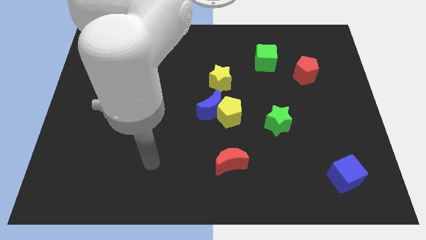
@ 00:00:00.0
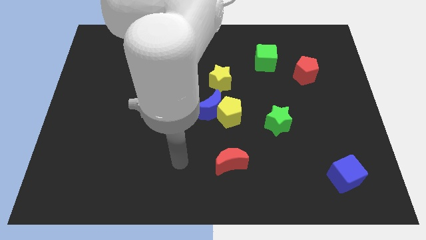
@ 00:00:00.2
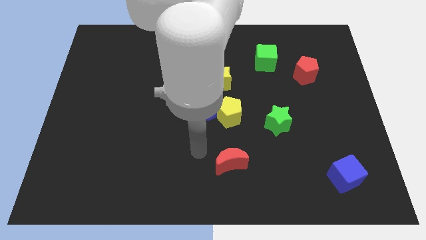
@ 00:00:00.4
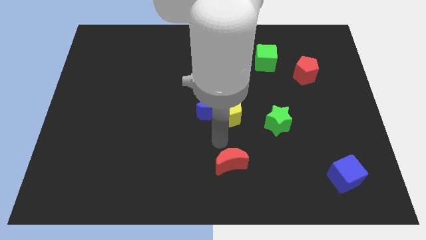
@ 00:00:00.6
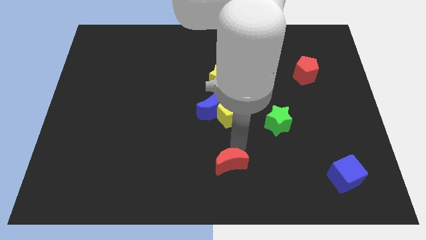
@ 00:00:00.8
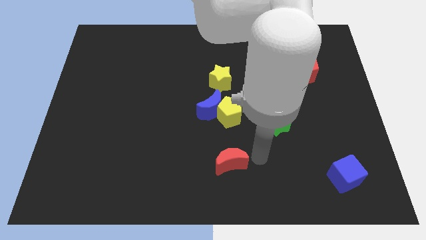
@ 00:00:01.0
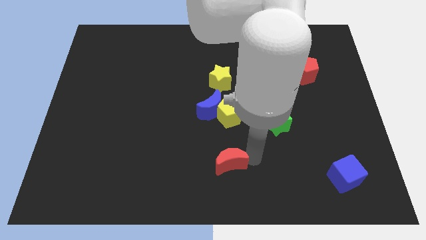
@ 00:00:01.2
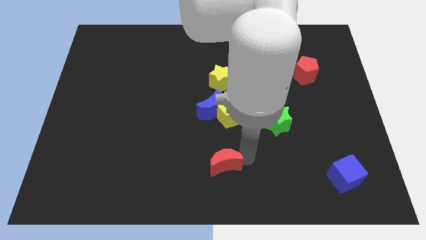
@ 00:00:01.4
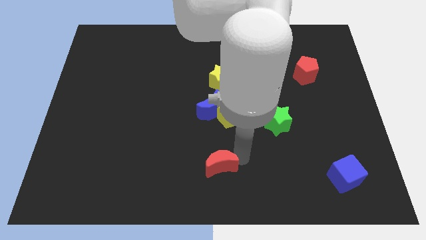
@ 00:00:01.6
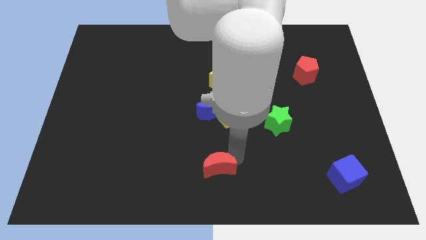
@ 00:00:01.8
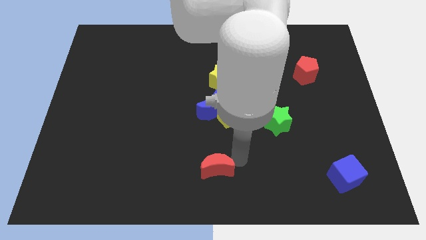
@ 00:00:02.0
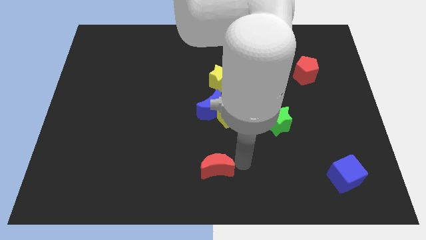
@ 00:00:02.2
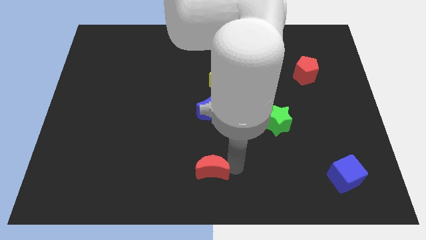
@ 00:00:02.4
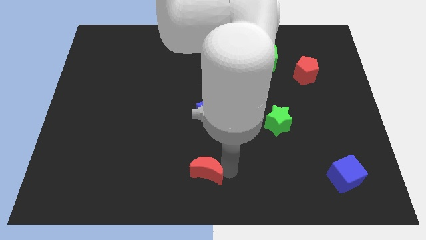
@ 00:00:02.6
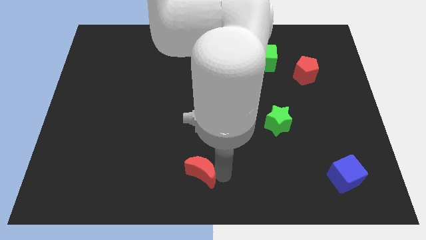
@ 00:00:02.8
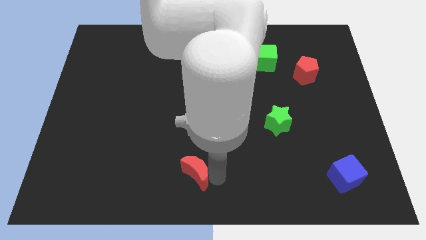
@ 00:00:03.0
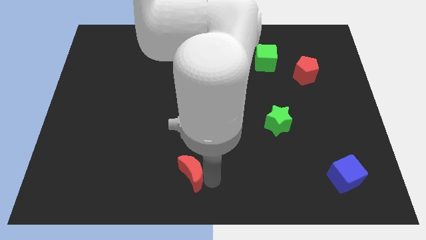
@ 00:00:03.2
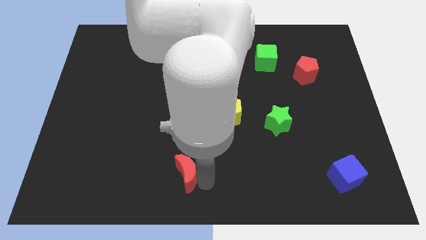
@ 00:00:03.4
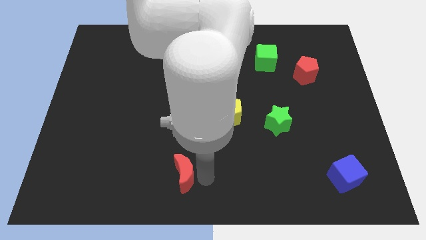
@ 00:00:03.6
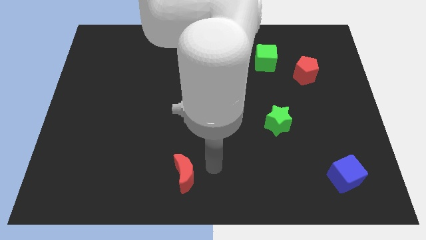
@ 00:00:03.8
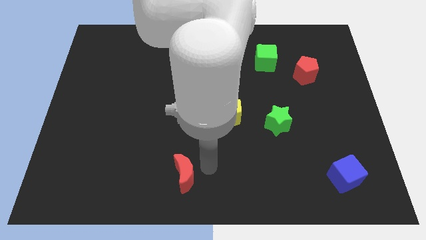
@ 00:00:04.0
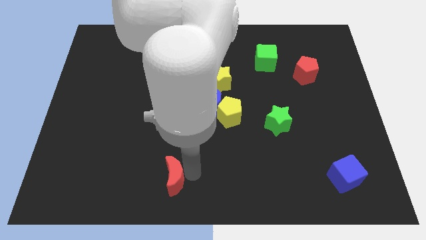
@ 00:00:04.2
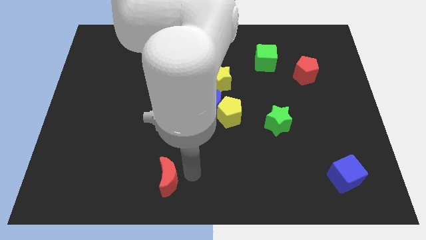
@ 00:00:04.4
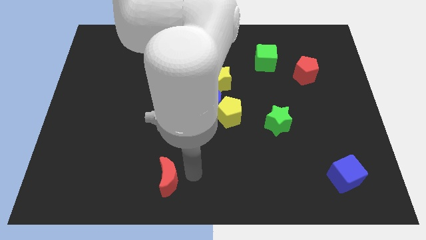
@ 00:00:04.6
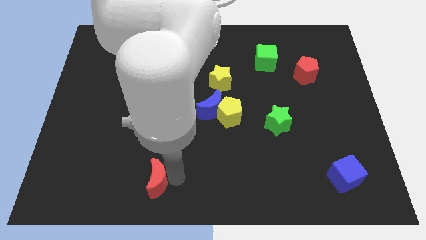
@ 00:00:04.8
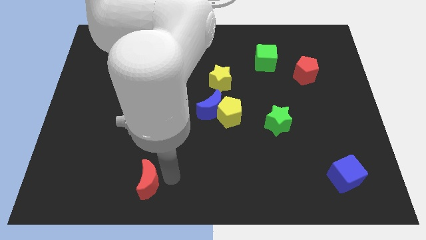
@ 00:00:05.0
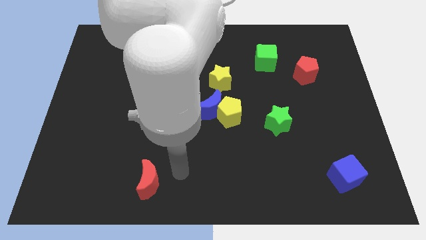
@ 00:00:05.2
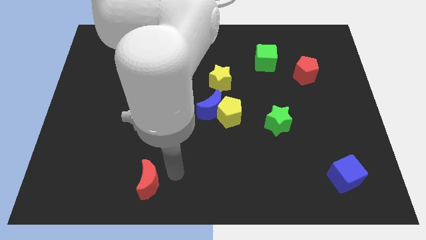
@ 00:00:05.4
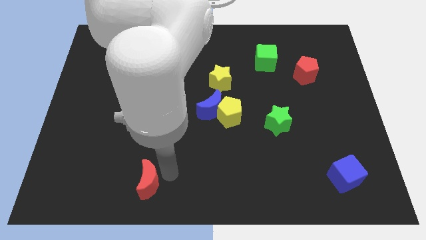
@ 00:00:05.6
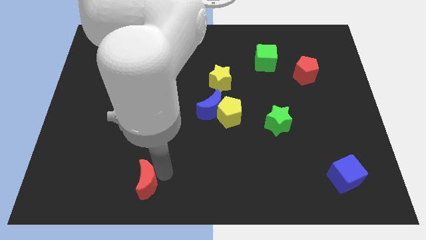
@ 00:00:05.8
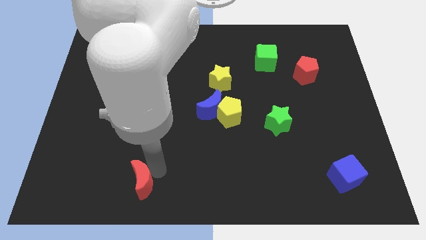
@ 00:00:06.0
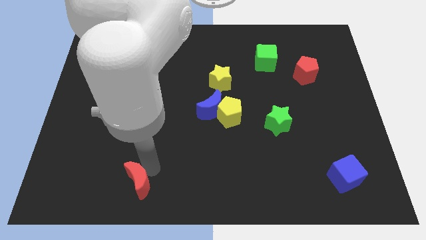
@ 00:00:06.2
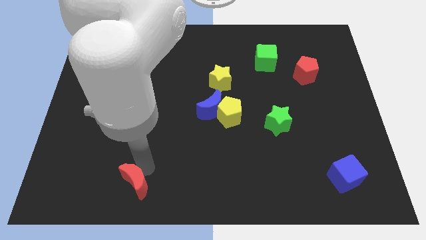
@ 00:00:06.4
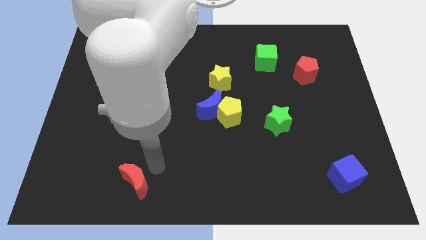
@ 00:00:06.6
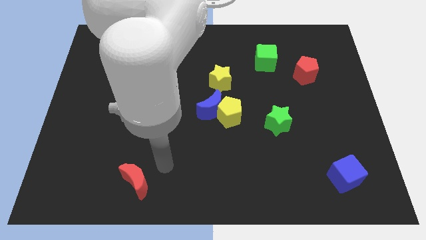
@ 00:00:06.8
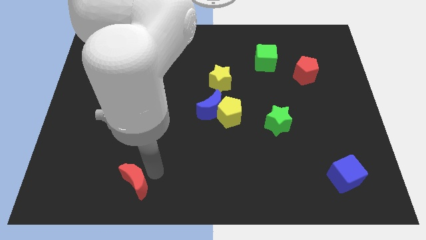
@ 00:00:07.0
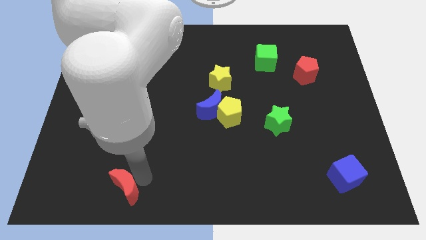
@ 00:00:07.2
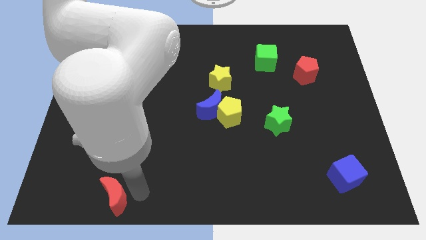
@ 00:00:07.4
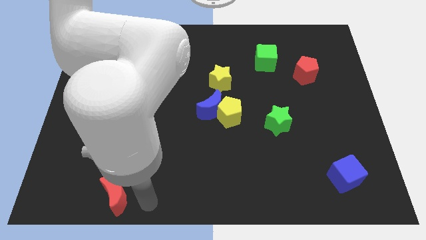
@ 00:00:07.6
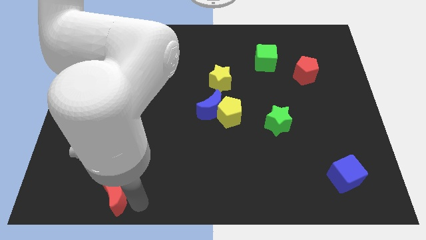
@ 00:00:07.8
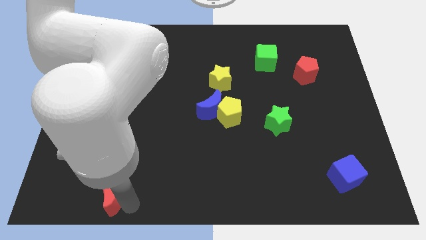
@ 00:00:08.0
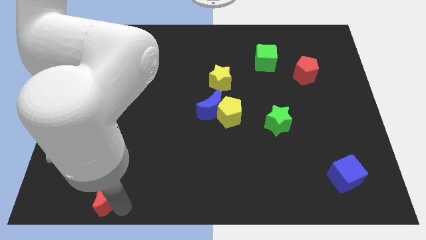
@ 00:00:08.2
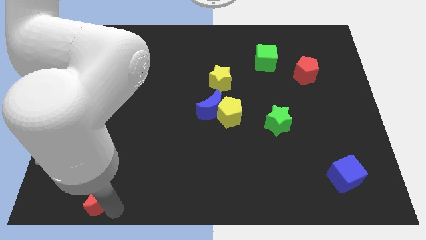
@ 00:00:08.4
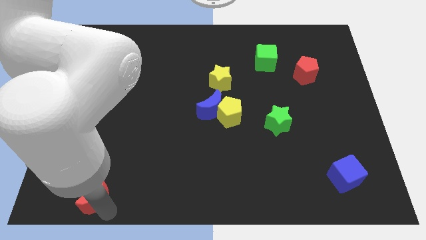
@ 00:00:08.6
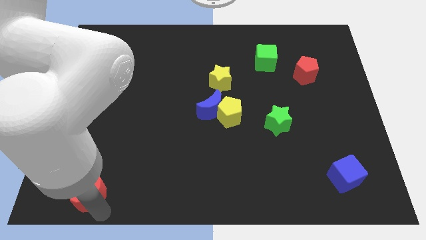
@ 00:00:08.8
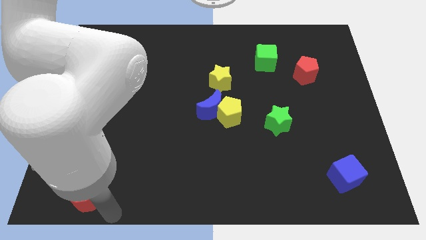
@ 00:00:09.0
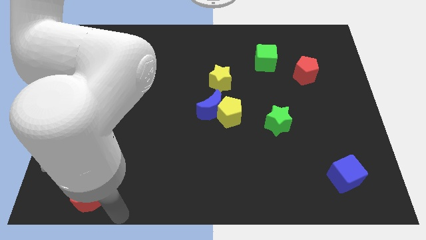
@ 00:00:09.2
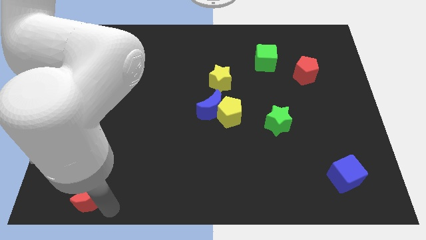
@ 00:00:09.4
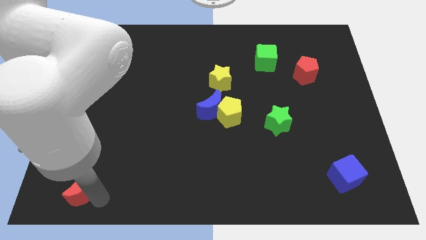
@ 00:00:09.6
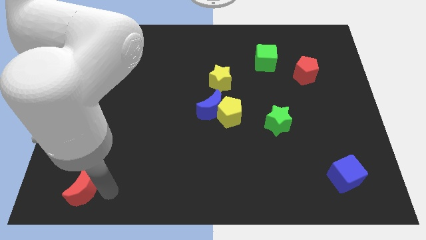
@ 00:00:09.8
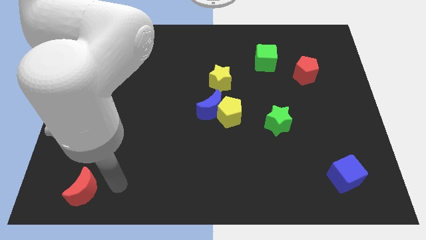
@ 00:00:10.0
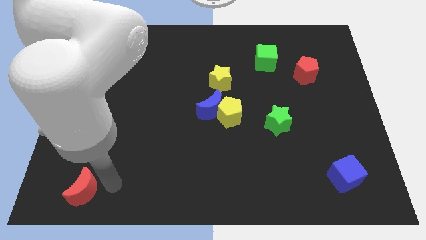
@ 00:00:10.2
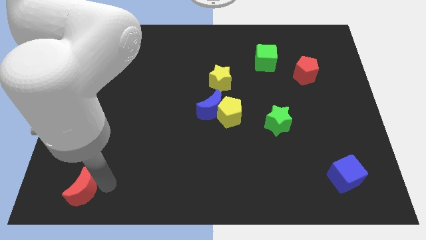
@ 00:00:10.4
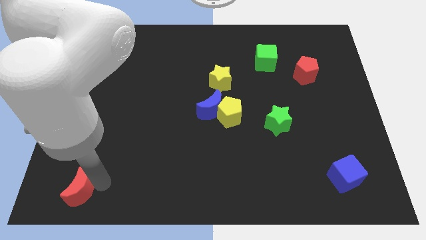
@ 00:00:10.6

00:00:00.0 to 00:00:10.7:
push the red moon to the bottom left corner

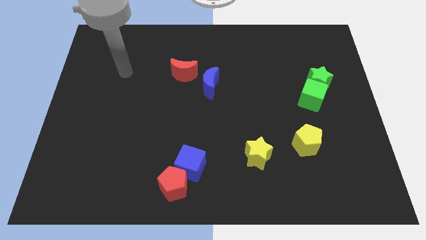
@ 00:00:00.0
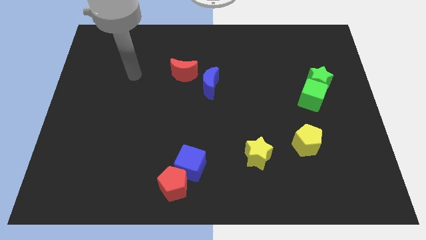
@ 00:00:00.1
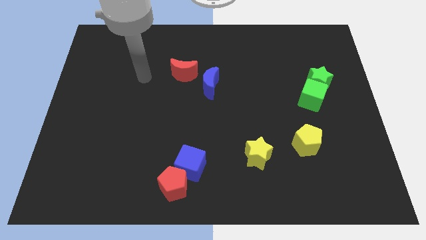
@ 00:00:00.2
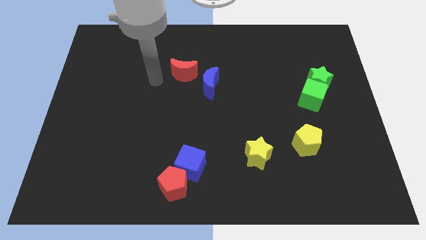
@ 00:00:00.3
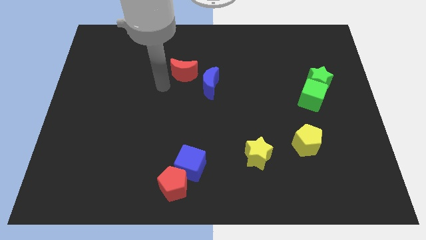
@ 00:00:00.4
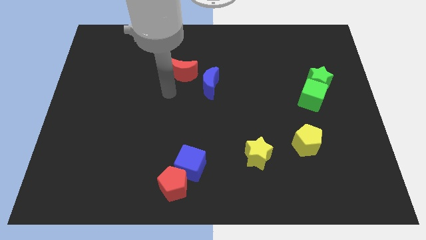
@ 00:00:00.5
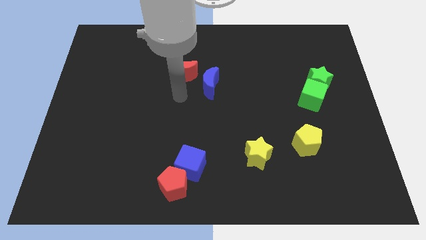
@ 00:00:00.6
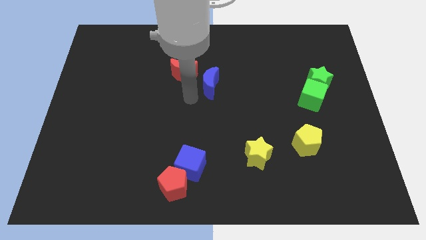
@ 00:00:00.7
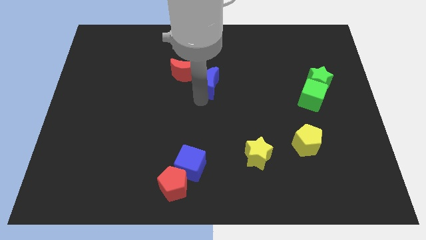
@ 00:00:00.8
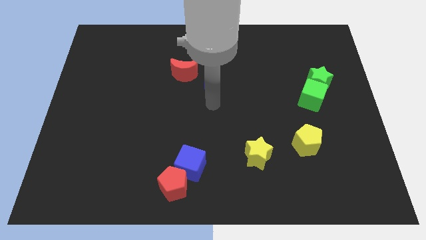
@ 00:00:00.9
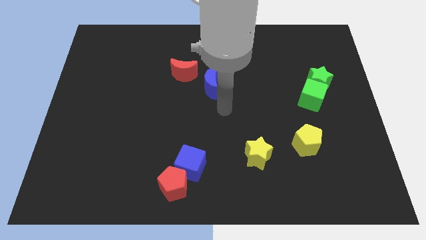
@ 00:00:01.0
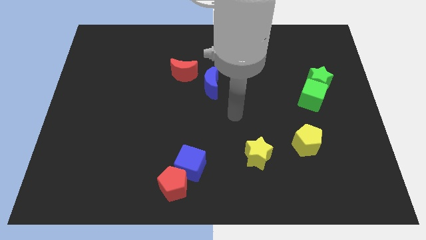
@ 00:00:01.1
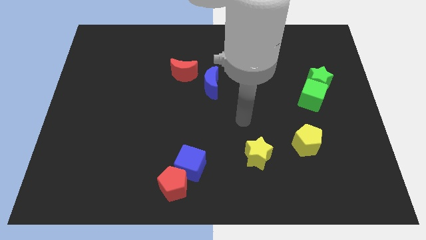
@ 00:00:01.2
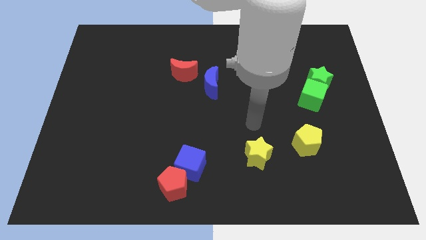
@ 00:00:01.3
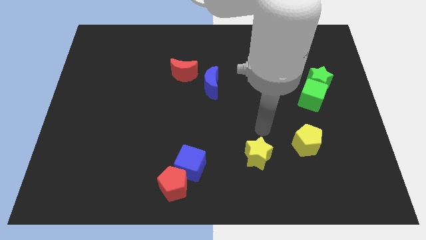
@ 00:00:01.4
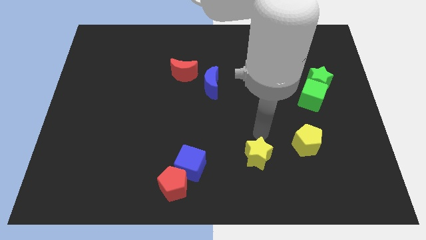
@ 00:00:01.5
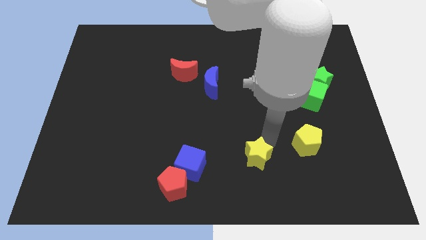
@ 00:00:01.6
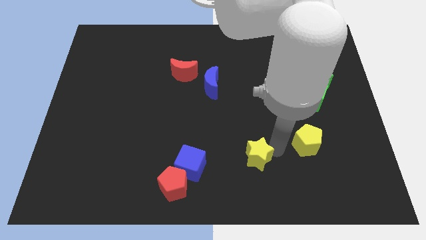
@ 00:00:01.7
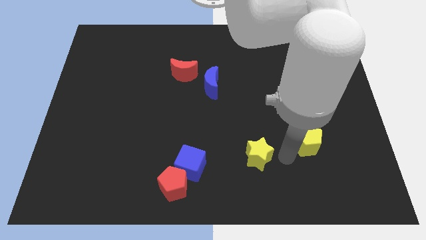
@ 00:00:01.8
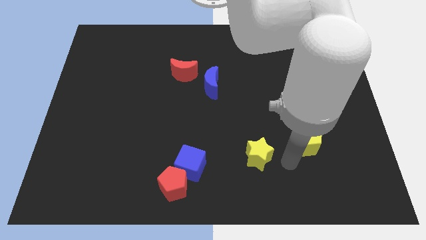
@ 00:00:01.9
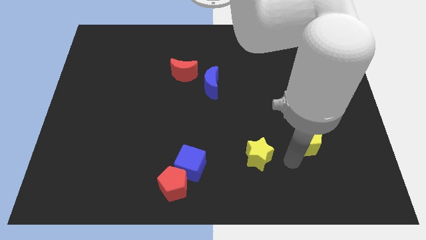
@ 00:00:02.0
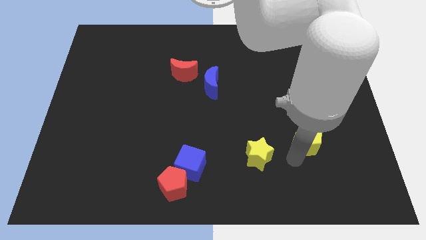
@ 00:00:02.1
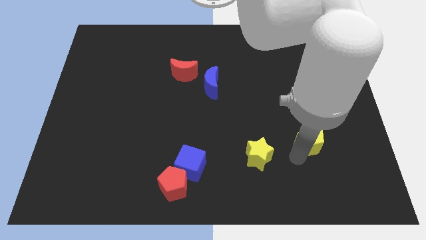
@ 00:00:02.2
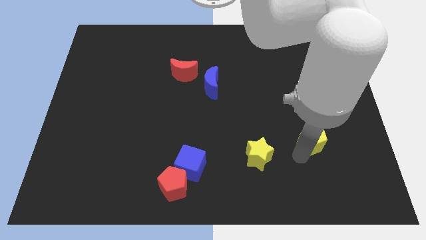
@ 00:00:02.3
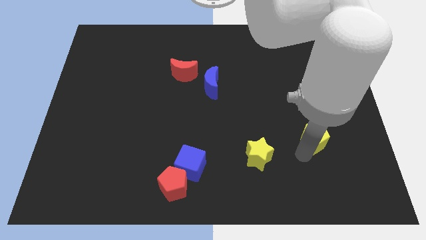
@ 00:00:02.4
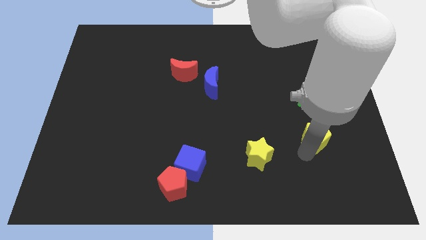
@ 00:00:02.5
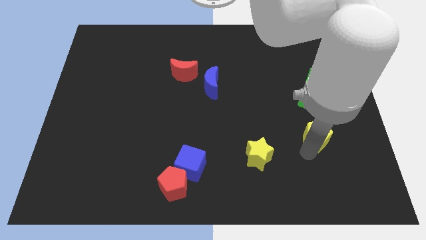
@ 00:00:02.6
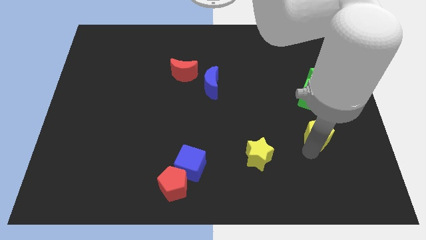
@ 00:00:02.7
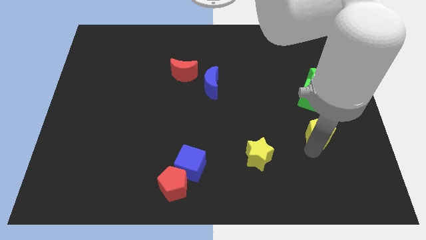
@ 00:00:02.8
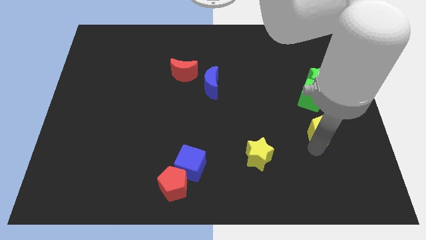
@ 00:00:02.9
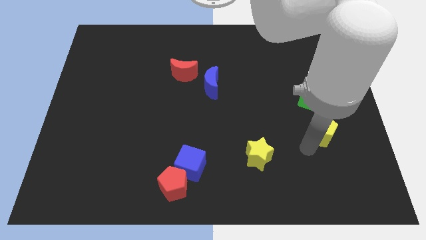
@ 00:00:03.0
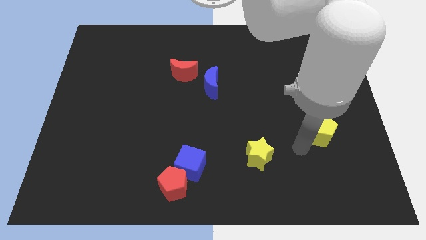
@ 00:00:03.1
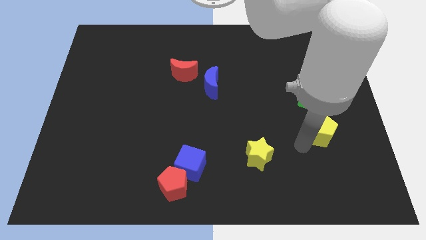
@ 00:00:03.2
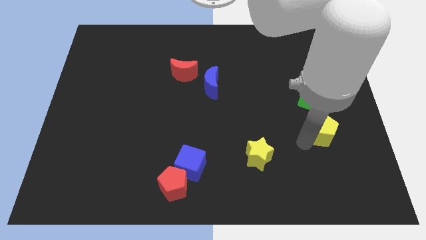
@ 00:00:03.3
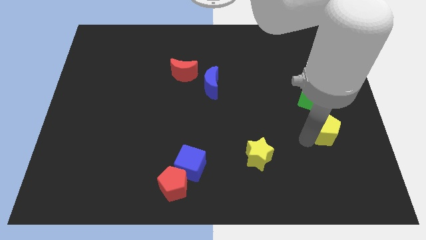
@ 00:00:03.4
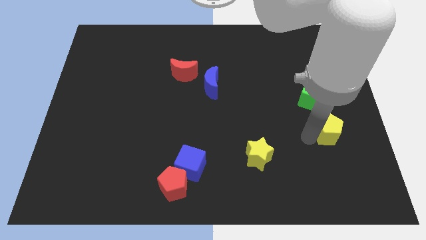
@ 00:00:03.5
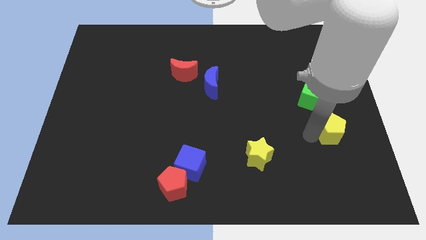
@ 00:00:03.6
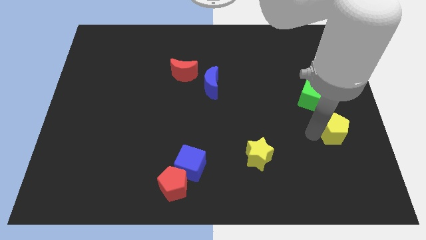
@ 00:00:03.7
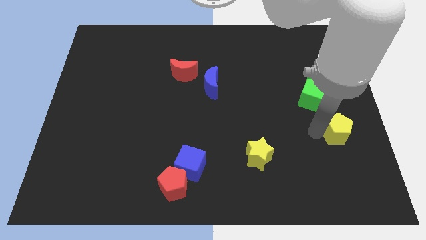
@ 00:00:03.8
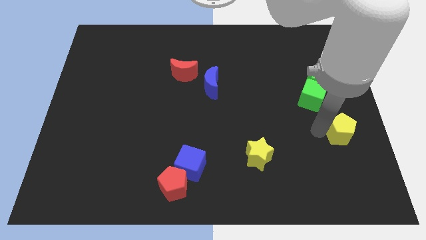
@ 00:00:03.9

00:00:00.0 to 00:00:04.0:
move the yellow pentagon to the center right
